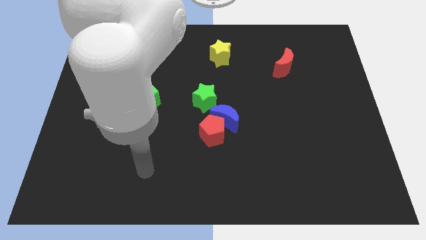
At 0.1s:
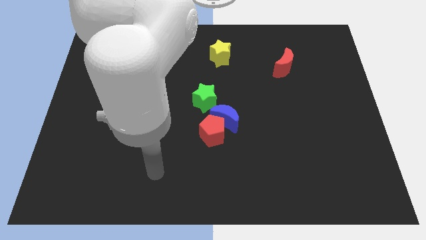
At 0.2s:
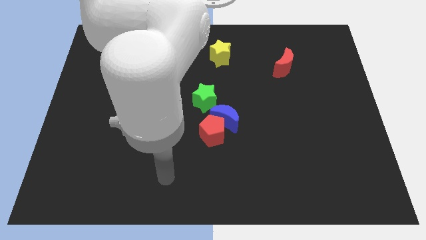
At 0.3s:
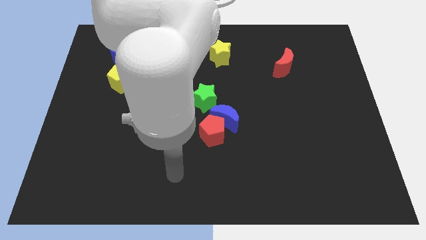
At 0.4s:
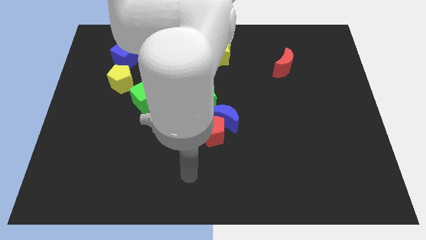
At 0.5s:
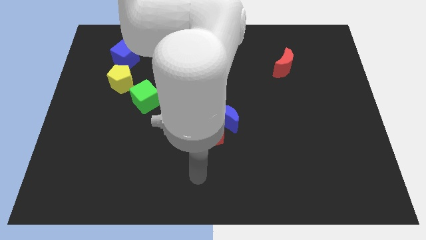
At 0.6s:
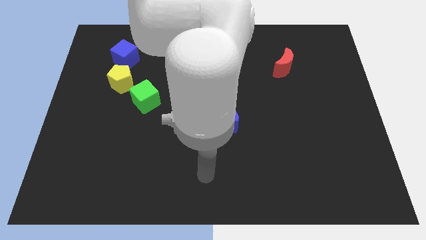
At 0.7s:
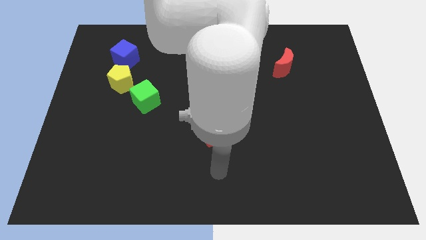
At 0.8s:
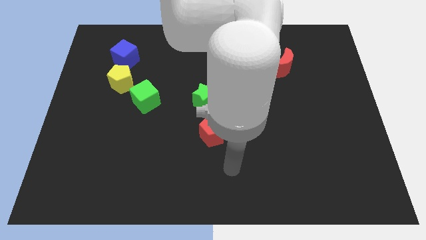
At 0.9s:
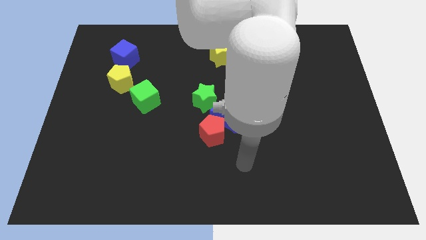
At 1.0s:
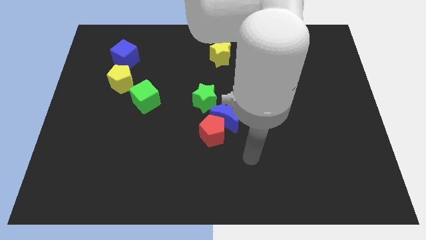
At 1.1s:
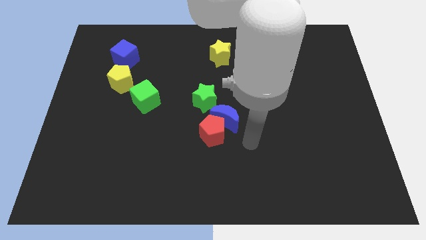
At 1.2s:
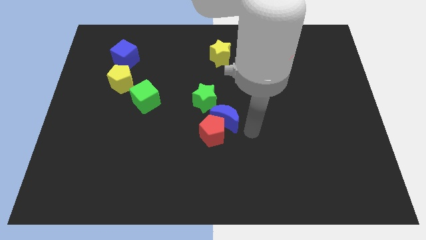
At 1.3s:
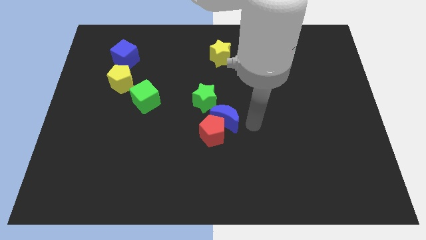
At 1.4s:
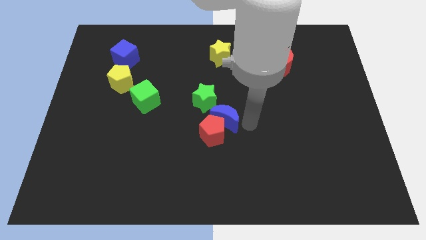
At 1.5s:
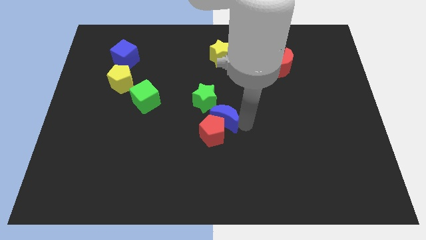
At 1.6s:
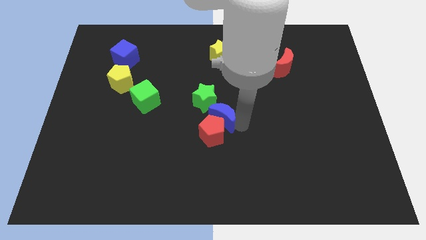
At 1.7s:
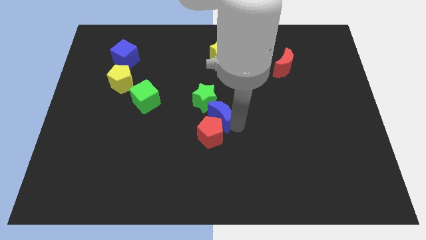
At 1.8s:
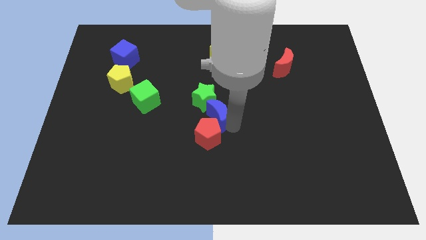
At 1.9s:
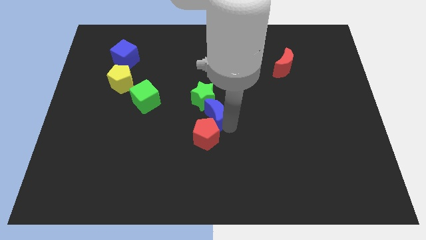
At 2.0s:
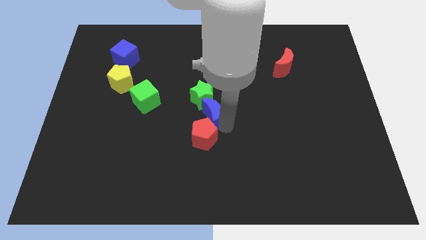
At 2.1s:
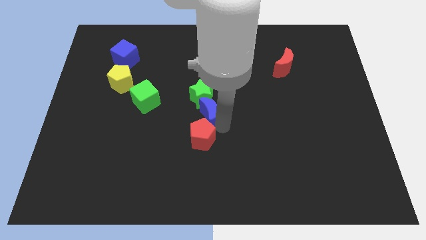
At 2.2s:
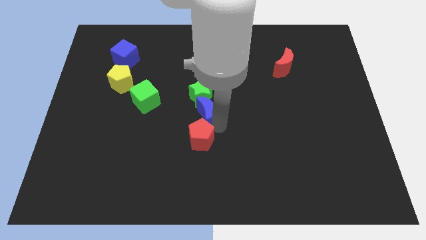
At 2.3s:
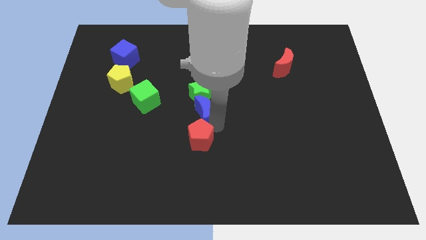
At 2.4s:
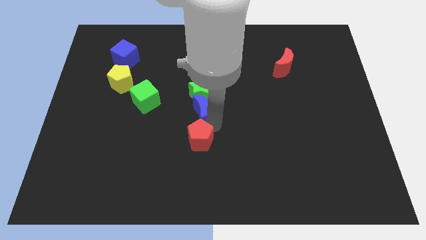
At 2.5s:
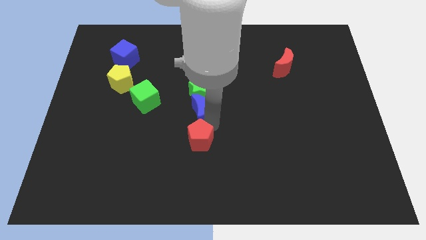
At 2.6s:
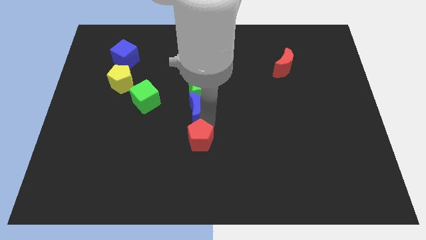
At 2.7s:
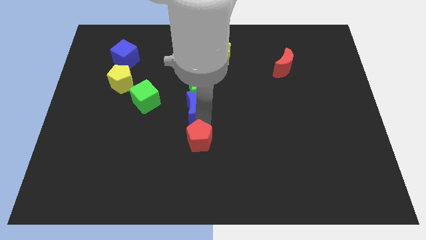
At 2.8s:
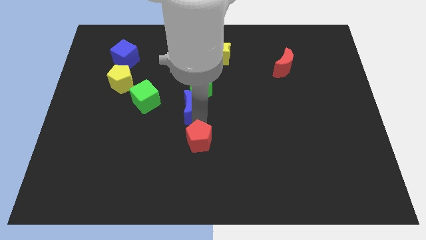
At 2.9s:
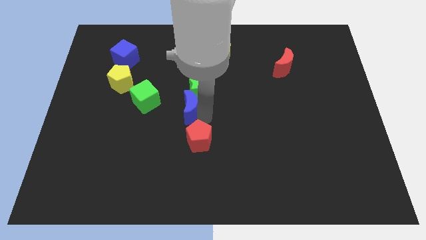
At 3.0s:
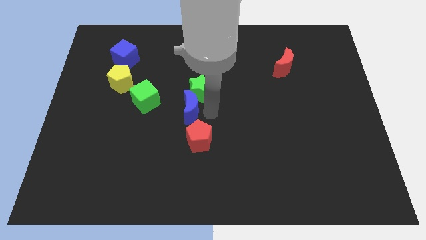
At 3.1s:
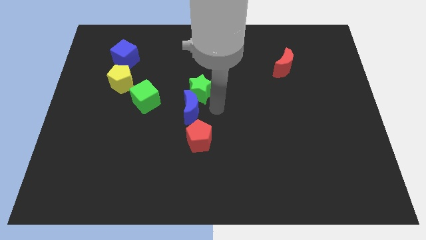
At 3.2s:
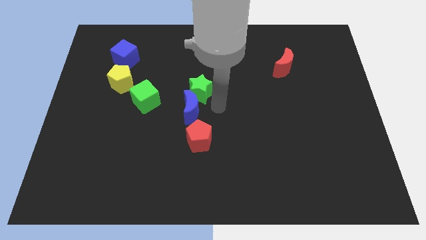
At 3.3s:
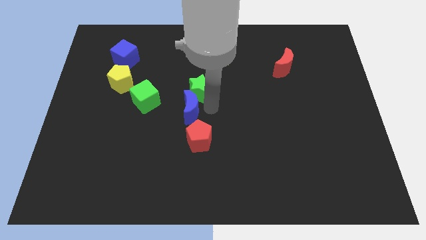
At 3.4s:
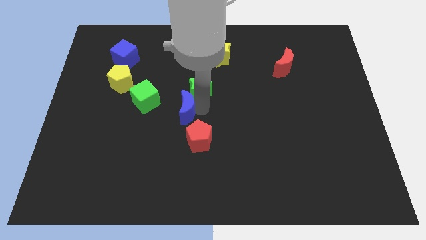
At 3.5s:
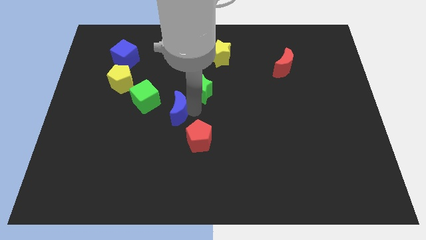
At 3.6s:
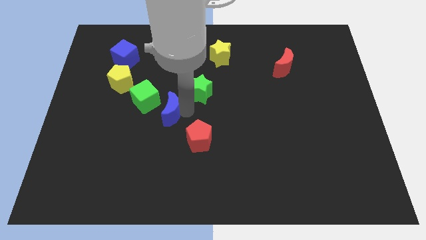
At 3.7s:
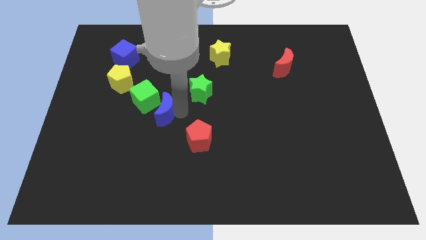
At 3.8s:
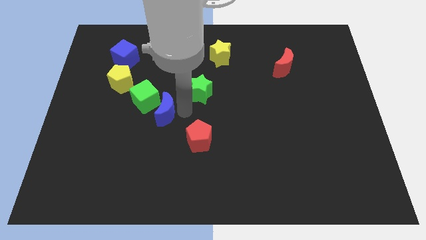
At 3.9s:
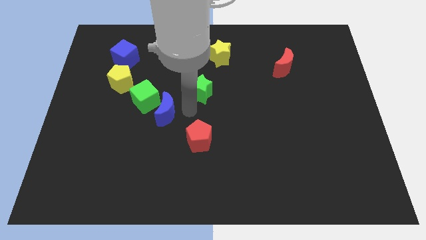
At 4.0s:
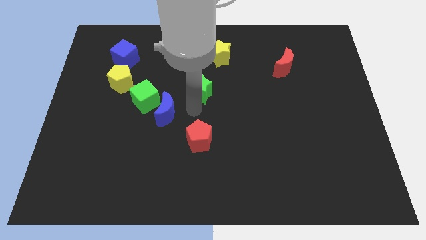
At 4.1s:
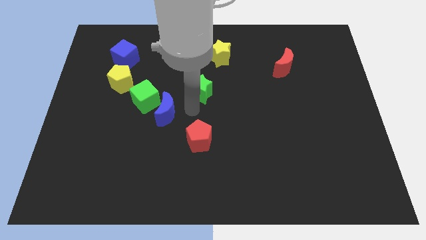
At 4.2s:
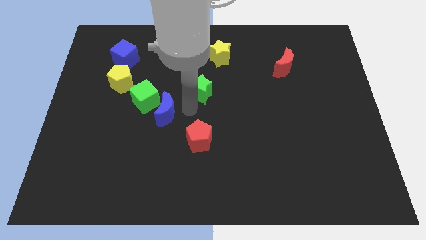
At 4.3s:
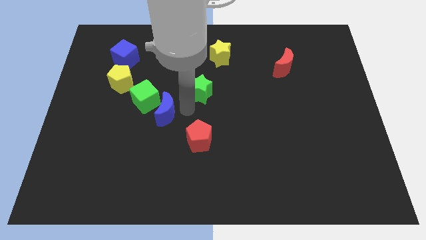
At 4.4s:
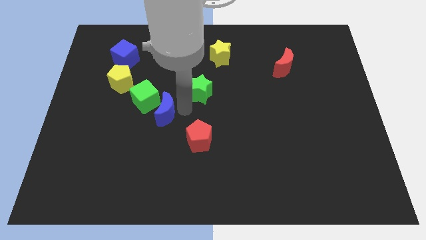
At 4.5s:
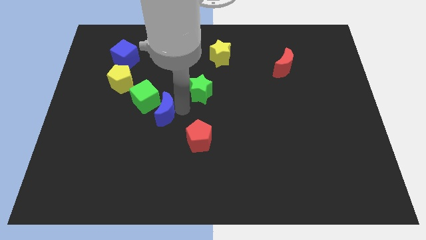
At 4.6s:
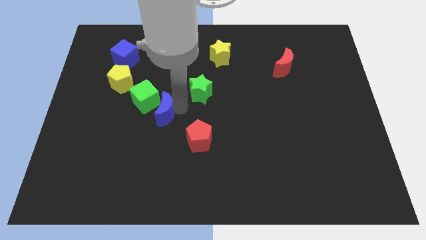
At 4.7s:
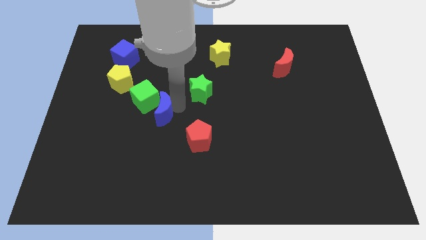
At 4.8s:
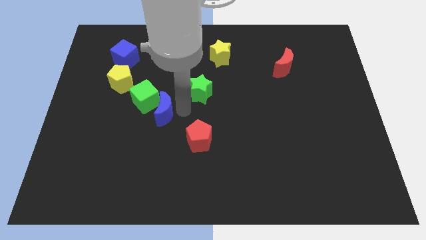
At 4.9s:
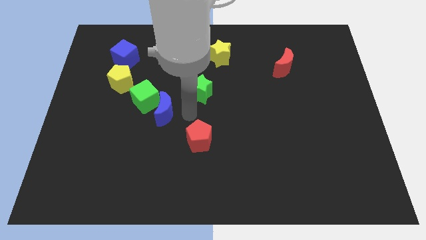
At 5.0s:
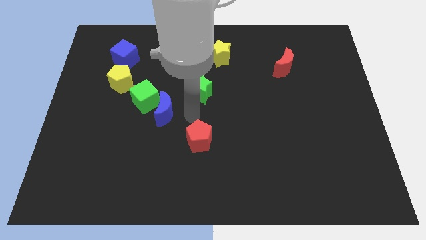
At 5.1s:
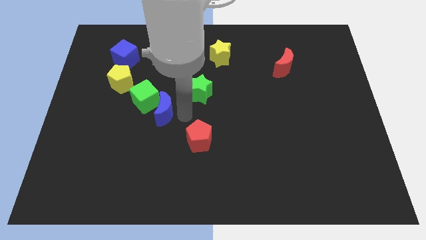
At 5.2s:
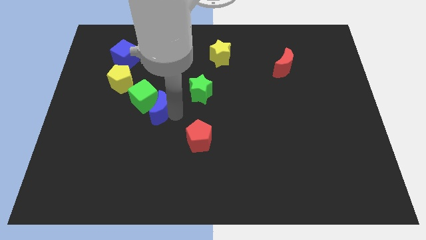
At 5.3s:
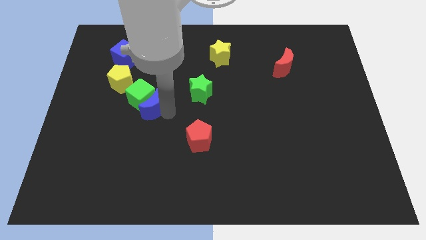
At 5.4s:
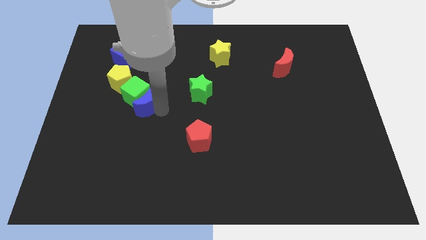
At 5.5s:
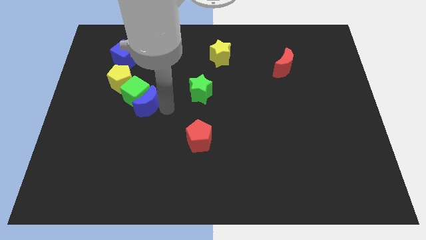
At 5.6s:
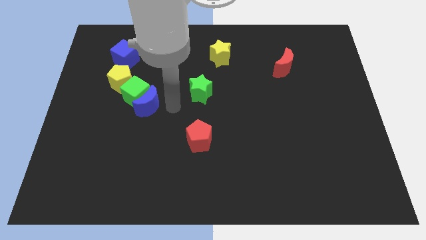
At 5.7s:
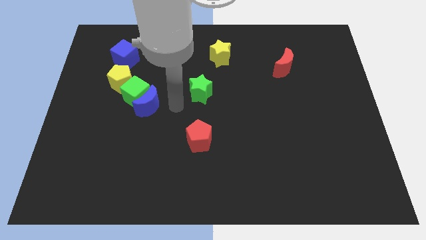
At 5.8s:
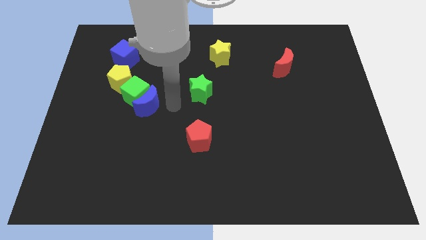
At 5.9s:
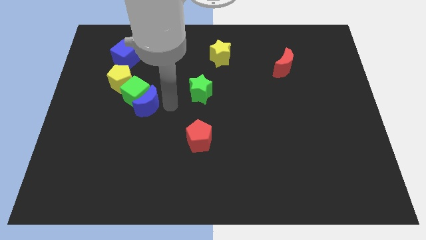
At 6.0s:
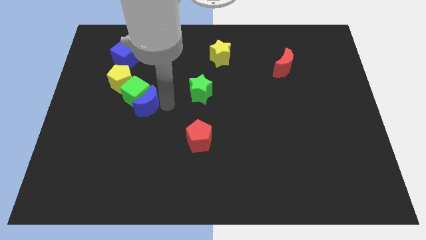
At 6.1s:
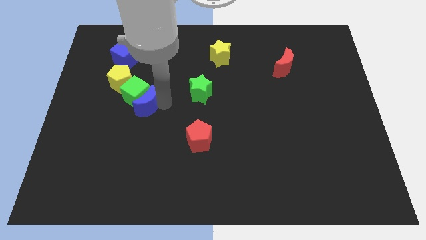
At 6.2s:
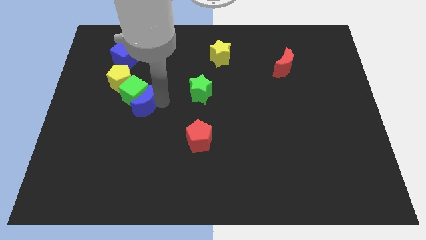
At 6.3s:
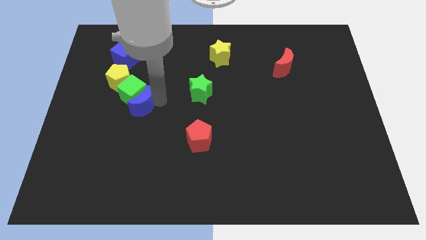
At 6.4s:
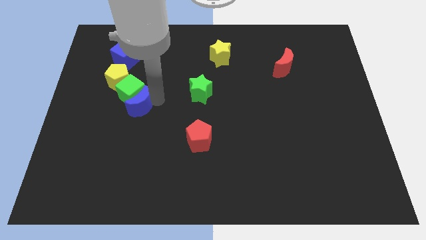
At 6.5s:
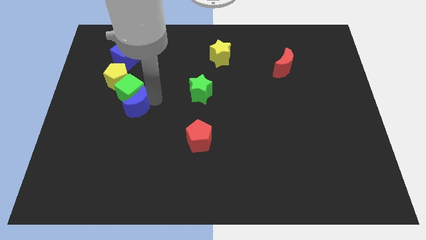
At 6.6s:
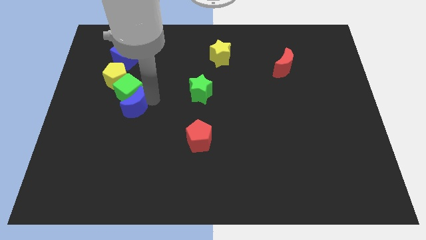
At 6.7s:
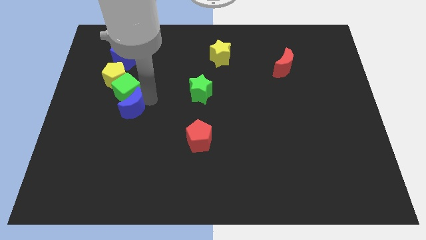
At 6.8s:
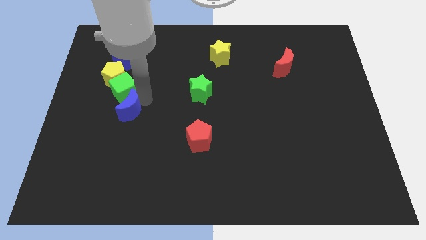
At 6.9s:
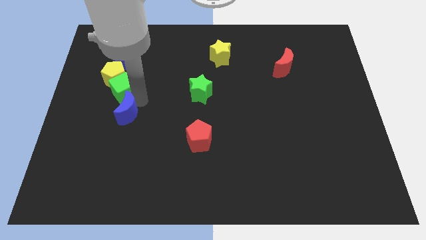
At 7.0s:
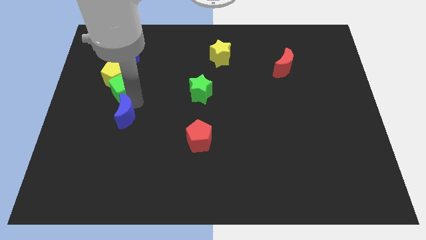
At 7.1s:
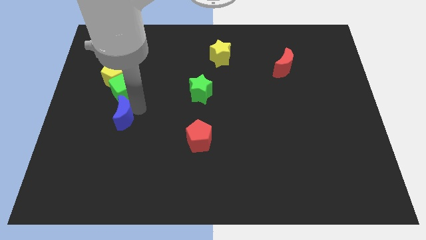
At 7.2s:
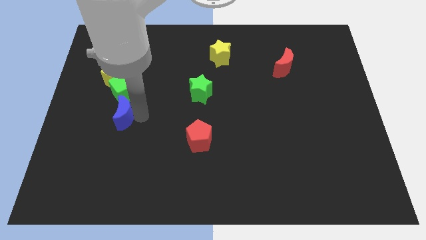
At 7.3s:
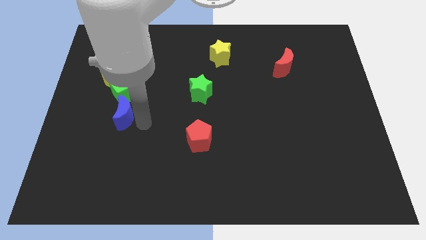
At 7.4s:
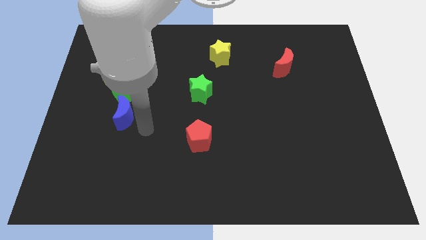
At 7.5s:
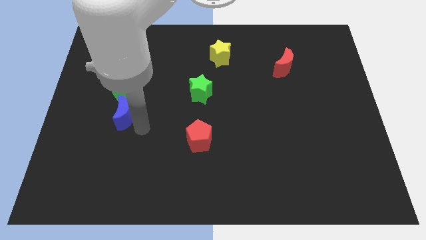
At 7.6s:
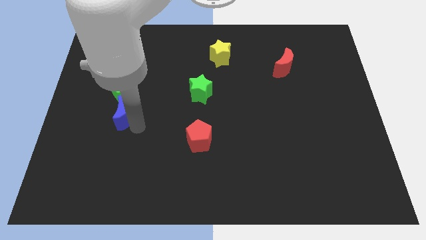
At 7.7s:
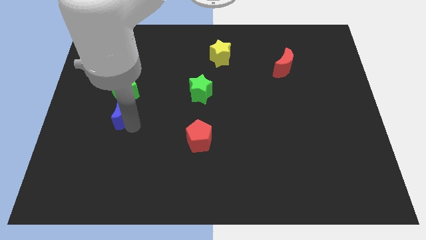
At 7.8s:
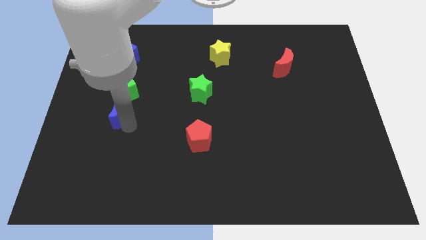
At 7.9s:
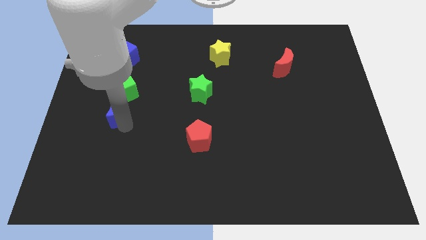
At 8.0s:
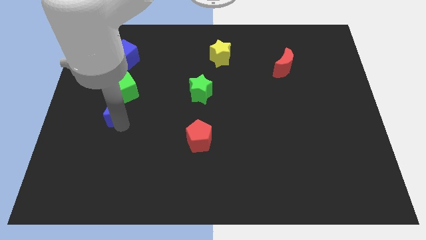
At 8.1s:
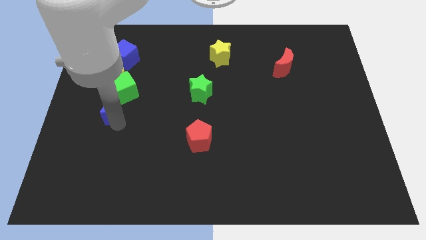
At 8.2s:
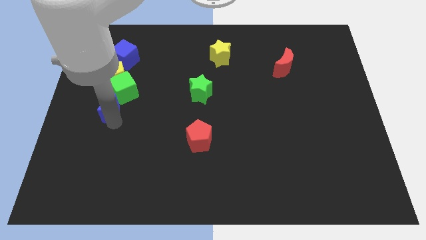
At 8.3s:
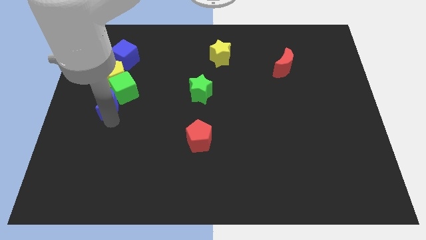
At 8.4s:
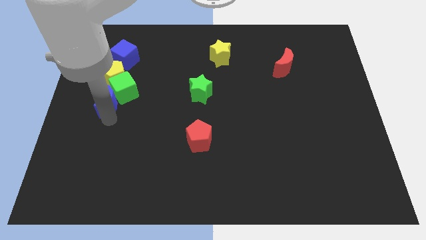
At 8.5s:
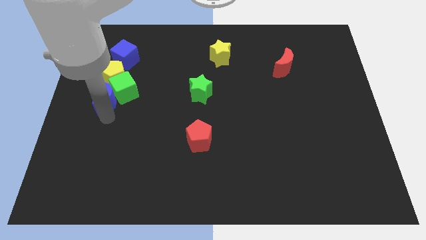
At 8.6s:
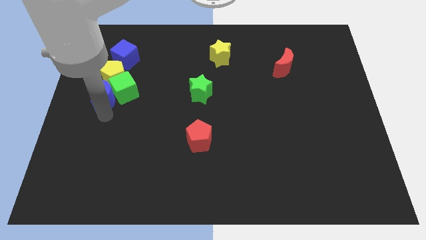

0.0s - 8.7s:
move the blue moon diagonally down and to the left of the yellow pentagon
